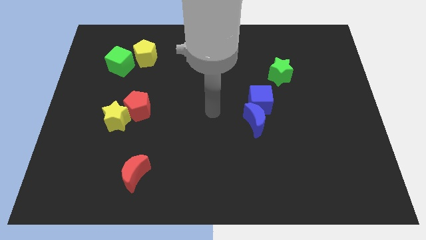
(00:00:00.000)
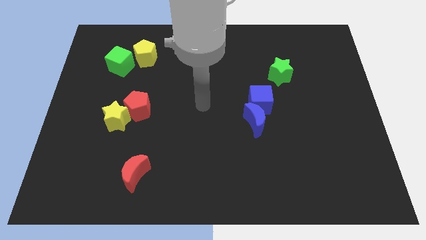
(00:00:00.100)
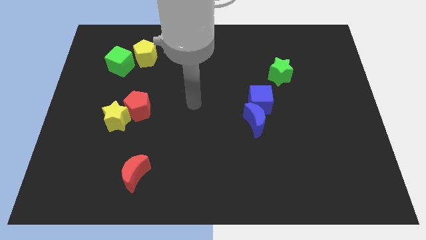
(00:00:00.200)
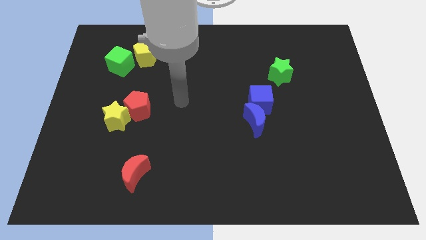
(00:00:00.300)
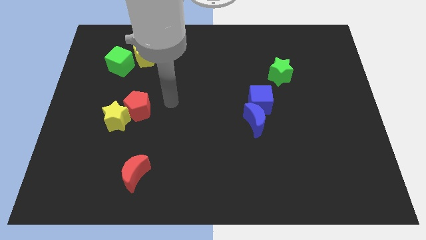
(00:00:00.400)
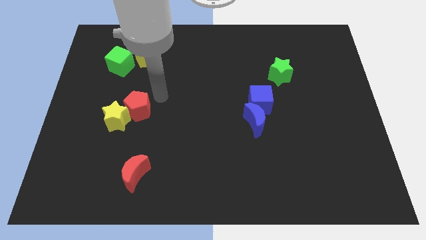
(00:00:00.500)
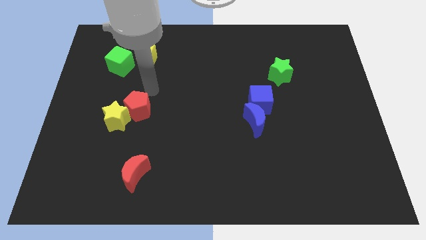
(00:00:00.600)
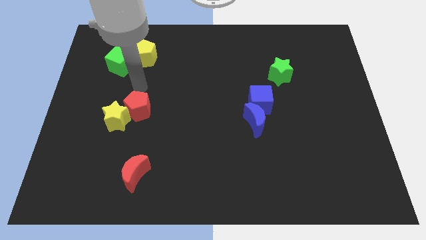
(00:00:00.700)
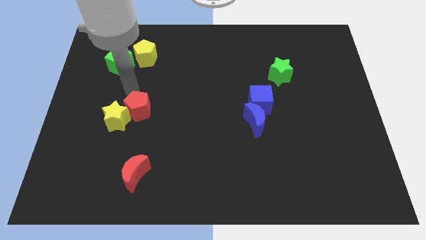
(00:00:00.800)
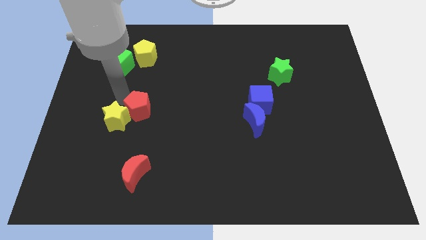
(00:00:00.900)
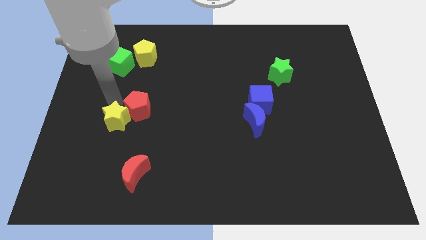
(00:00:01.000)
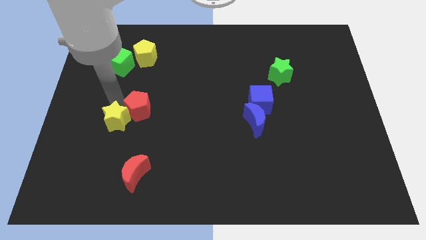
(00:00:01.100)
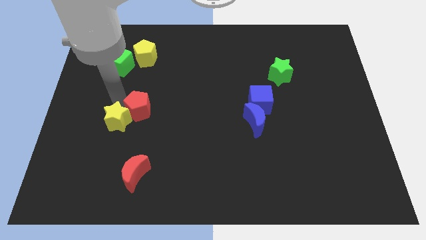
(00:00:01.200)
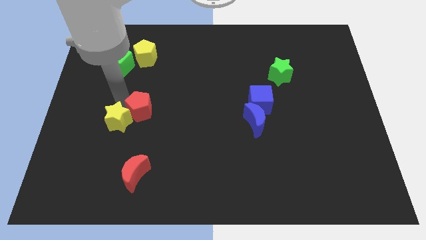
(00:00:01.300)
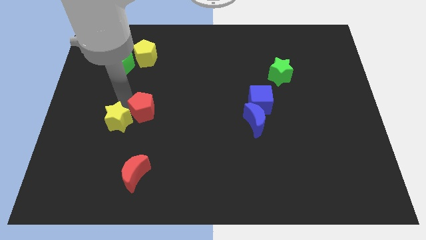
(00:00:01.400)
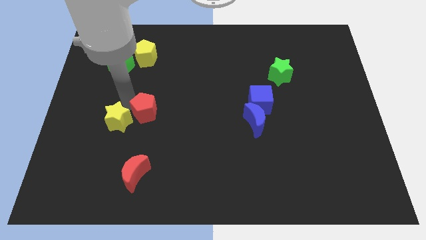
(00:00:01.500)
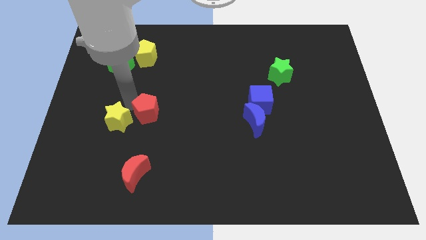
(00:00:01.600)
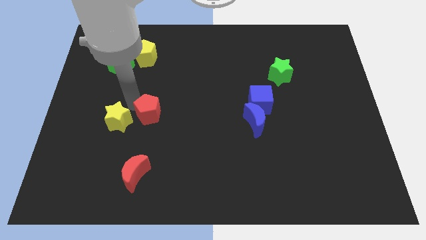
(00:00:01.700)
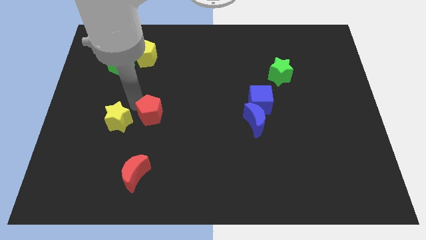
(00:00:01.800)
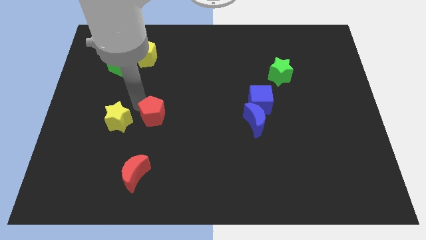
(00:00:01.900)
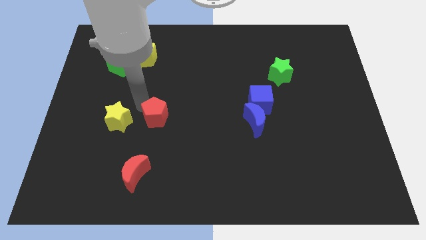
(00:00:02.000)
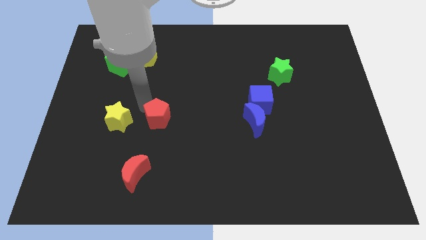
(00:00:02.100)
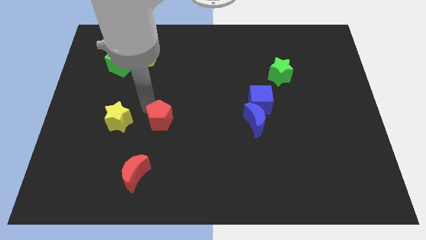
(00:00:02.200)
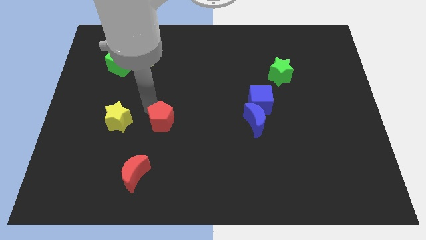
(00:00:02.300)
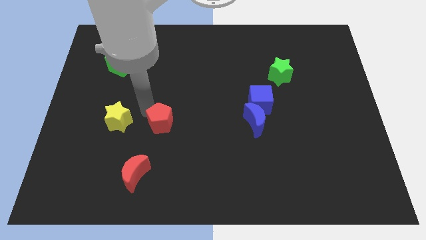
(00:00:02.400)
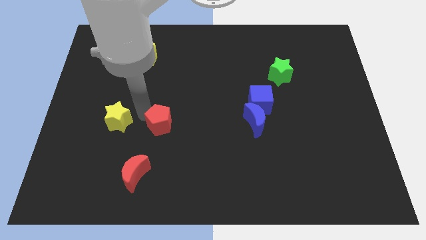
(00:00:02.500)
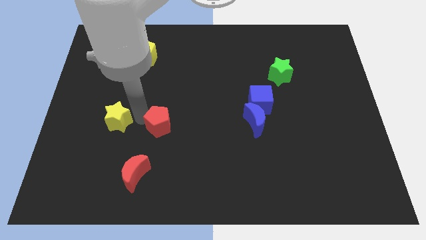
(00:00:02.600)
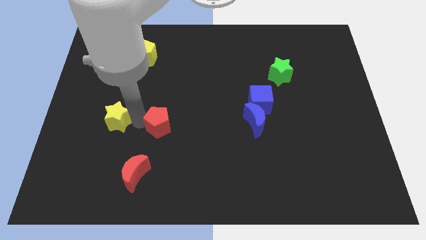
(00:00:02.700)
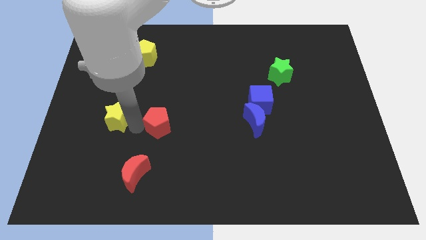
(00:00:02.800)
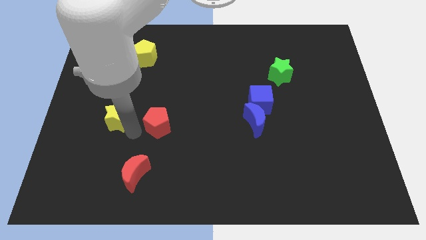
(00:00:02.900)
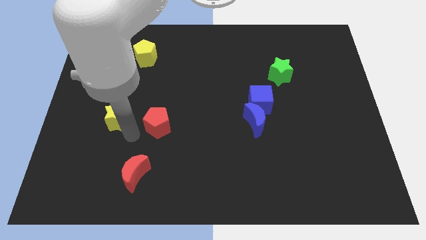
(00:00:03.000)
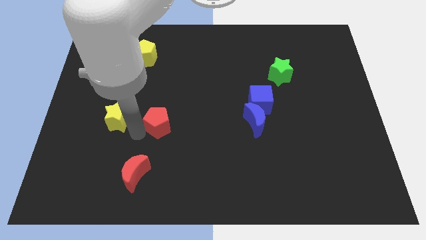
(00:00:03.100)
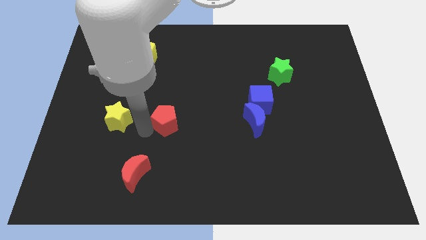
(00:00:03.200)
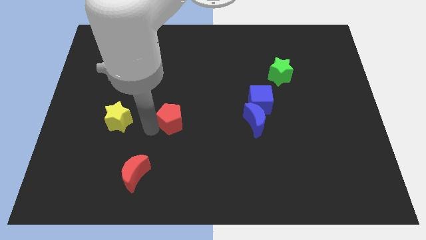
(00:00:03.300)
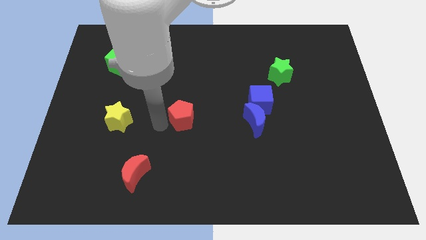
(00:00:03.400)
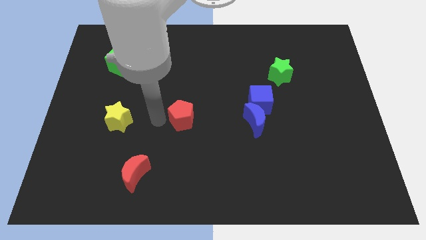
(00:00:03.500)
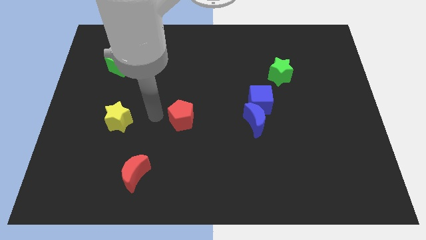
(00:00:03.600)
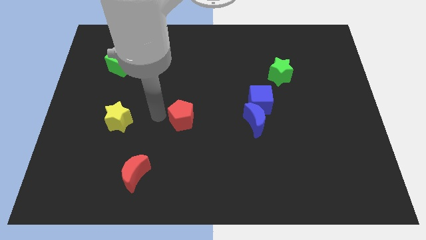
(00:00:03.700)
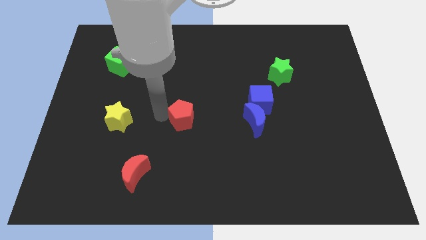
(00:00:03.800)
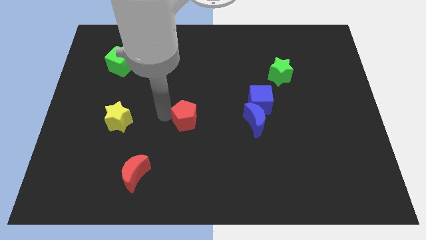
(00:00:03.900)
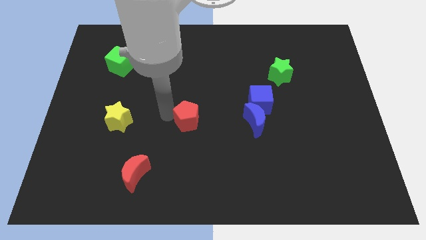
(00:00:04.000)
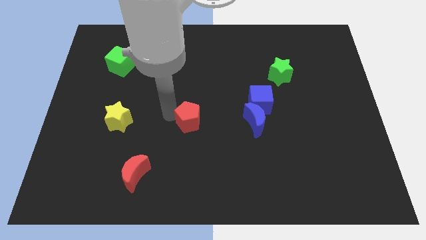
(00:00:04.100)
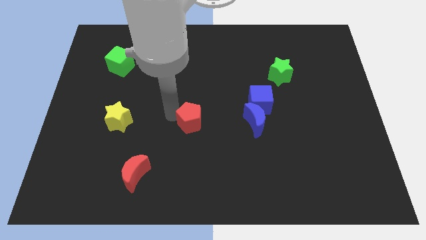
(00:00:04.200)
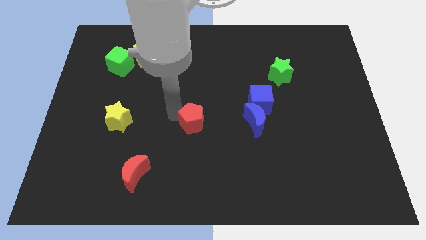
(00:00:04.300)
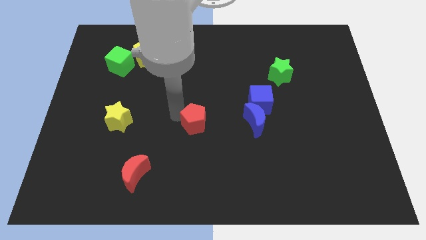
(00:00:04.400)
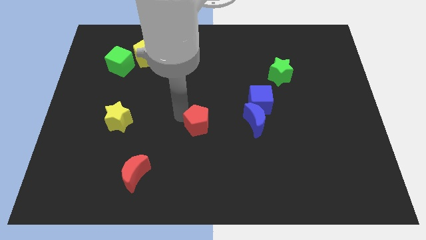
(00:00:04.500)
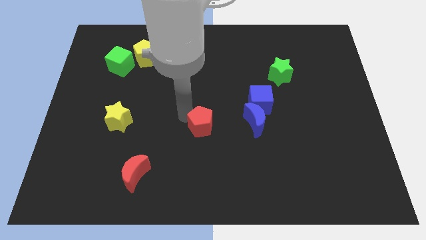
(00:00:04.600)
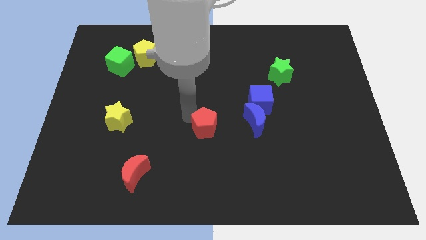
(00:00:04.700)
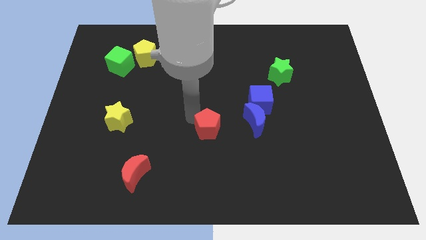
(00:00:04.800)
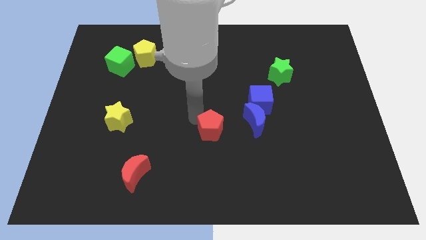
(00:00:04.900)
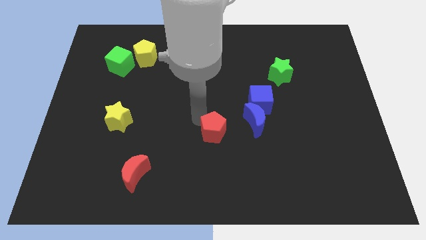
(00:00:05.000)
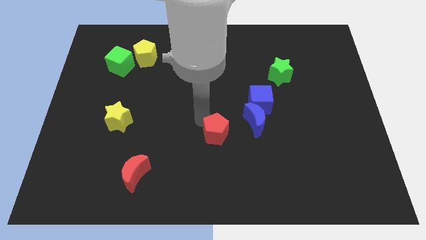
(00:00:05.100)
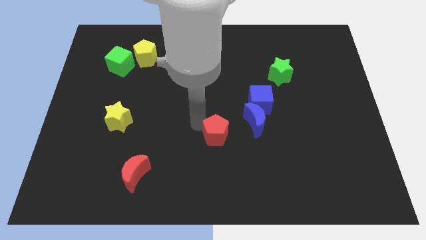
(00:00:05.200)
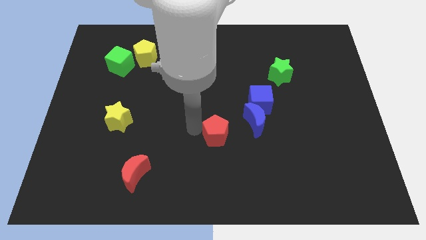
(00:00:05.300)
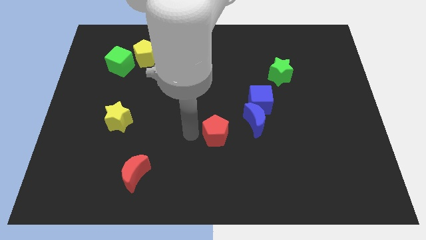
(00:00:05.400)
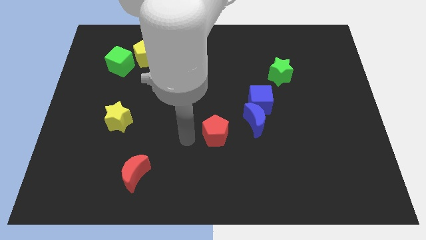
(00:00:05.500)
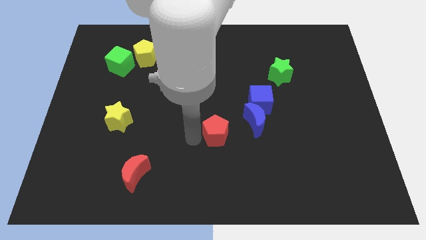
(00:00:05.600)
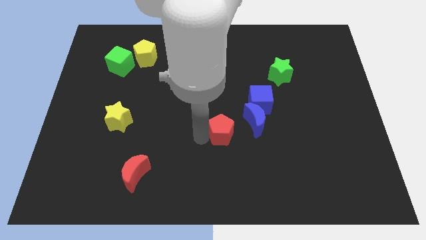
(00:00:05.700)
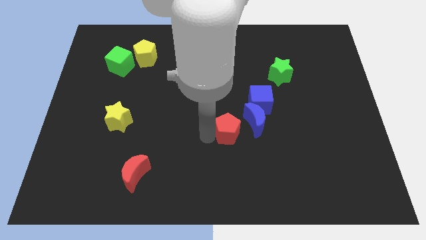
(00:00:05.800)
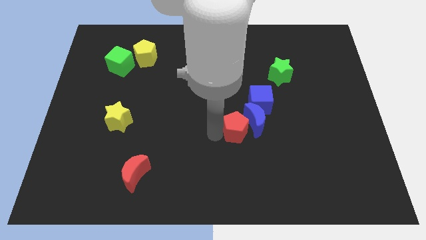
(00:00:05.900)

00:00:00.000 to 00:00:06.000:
push the red pentagon to the right

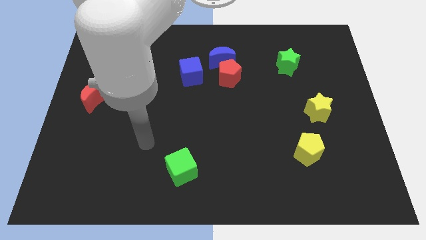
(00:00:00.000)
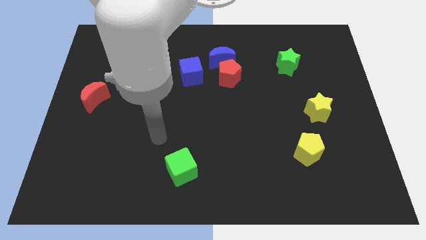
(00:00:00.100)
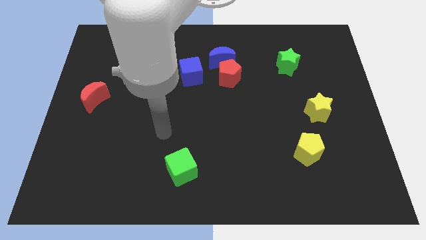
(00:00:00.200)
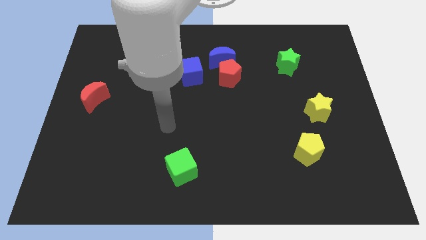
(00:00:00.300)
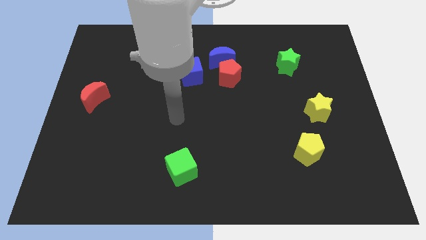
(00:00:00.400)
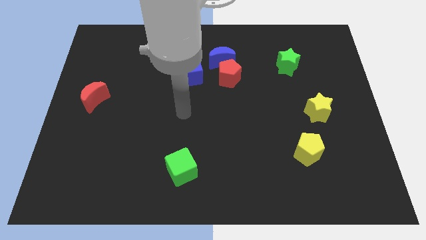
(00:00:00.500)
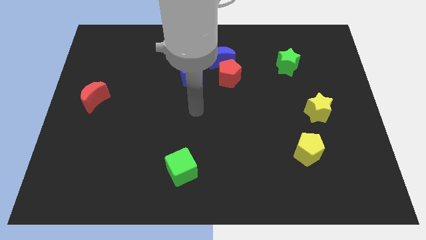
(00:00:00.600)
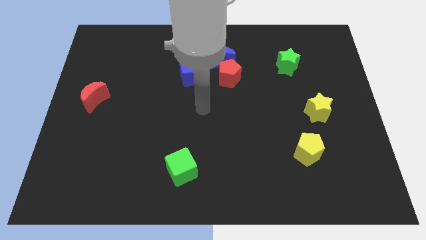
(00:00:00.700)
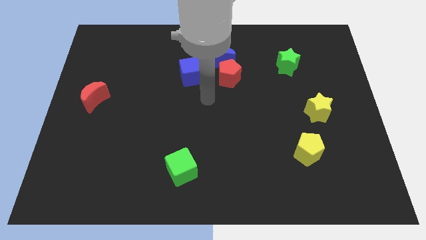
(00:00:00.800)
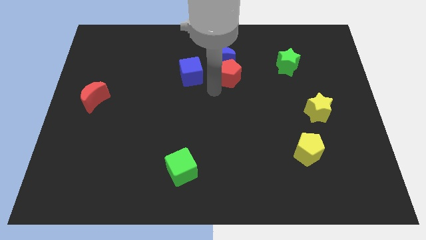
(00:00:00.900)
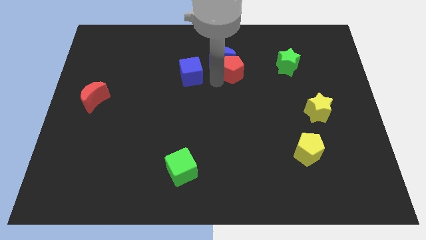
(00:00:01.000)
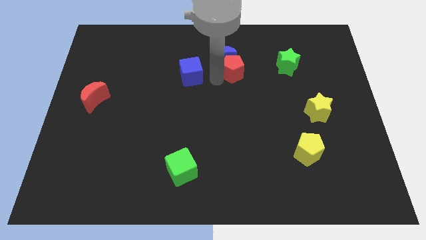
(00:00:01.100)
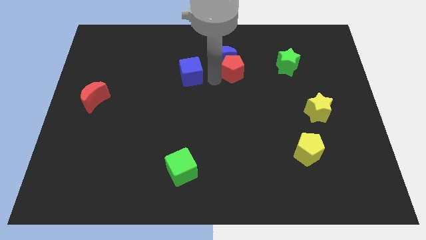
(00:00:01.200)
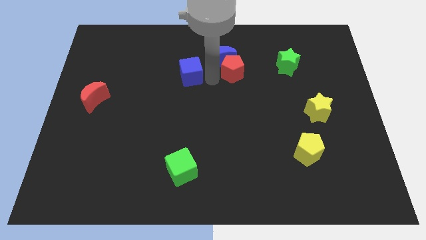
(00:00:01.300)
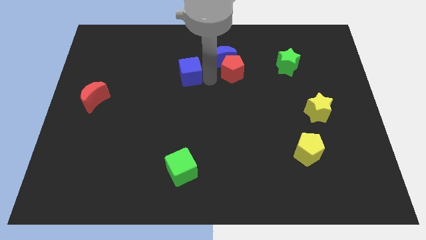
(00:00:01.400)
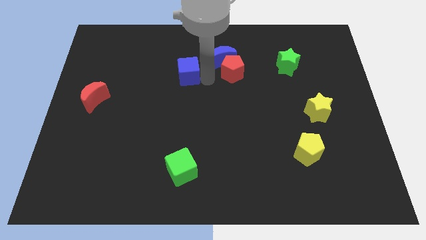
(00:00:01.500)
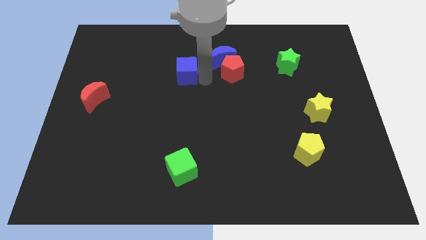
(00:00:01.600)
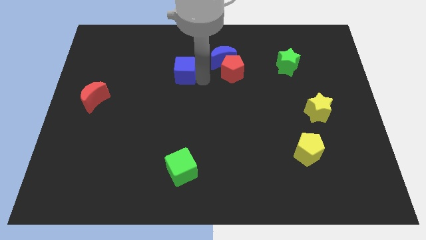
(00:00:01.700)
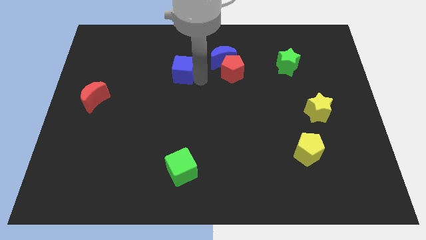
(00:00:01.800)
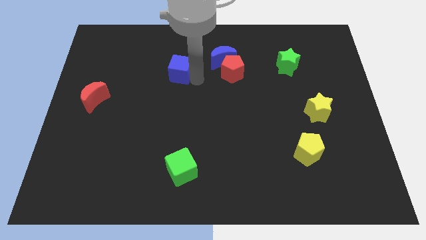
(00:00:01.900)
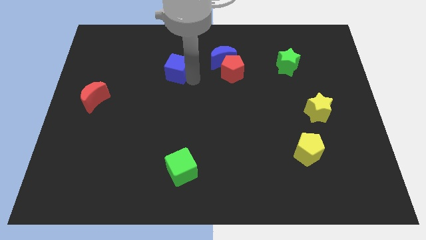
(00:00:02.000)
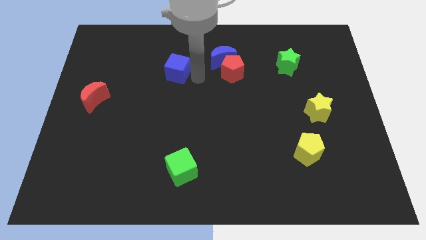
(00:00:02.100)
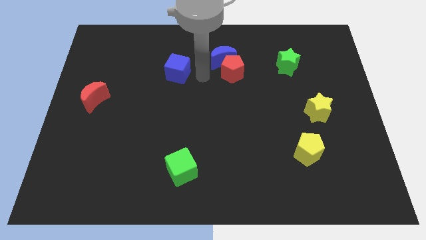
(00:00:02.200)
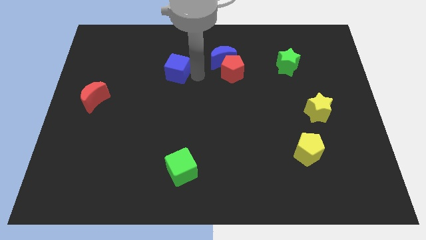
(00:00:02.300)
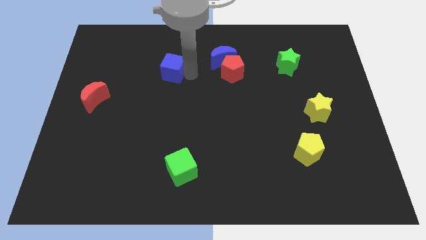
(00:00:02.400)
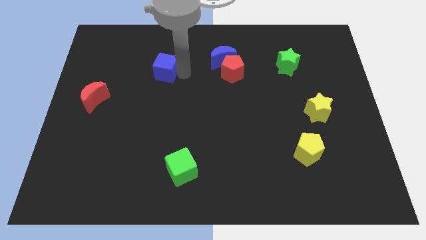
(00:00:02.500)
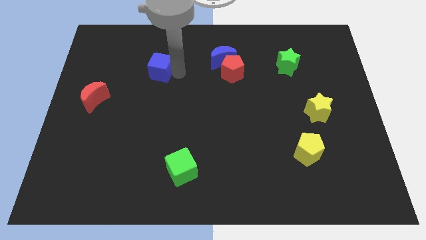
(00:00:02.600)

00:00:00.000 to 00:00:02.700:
slide the blue cube a bit to the left
